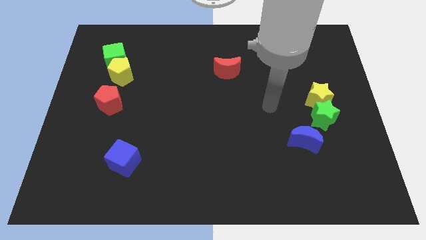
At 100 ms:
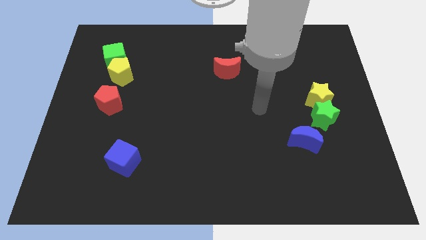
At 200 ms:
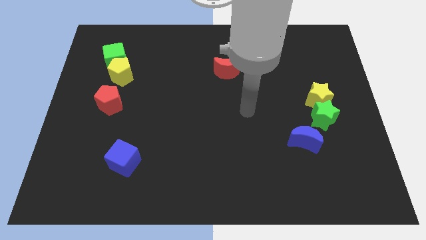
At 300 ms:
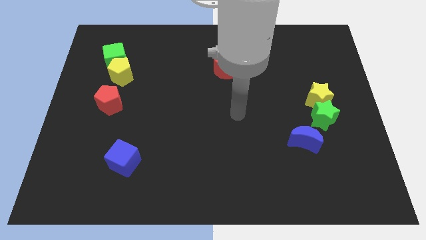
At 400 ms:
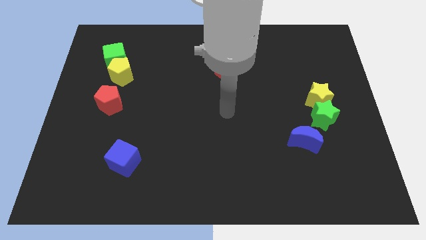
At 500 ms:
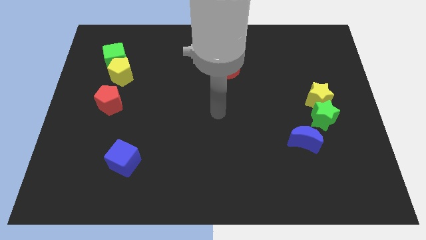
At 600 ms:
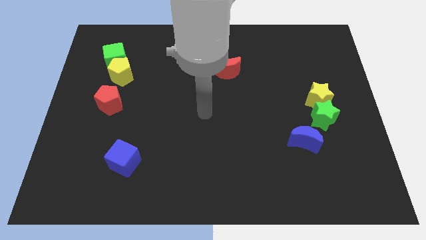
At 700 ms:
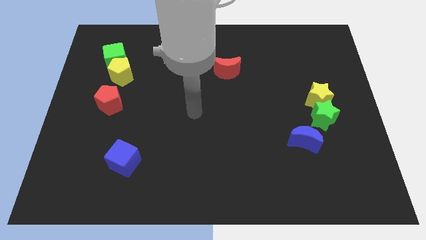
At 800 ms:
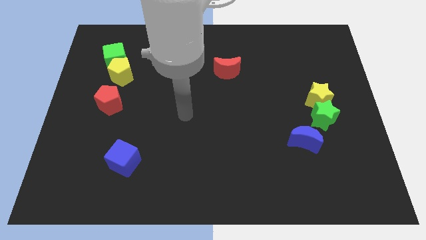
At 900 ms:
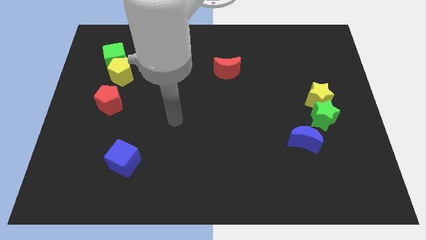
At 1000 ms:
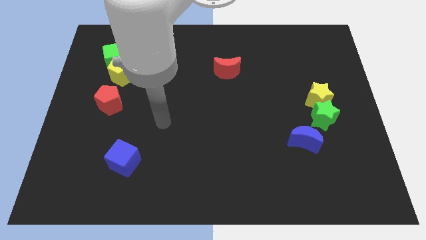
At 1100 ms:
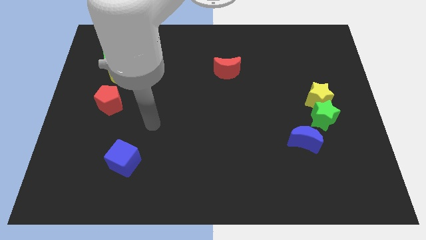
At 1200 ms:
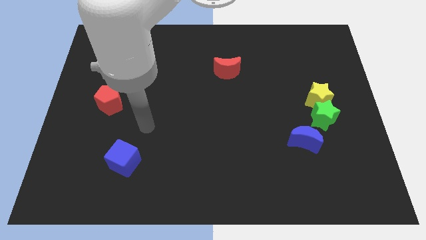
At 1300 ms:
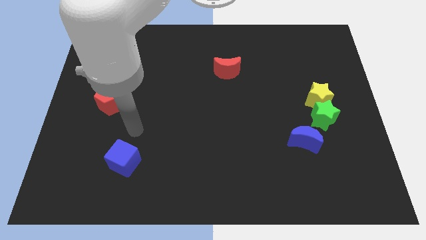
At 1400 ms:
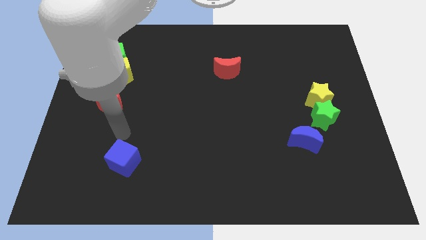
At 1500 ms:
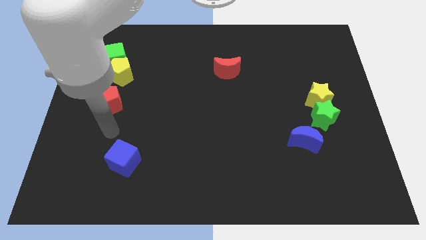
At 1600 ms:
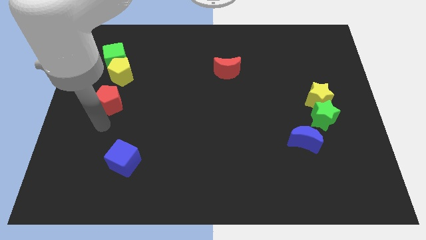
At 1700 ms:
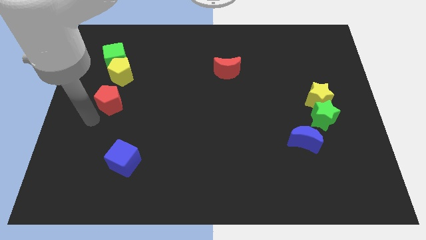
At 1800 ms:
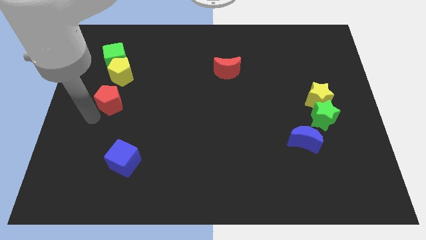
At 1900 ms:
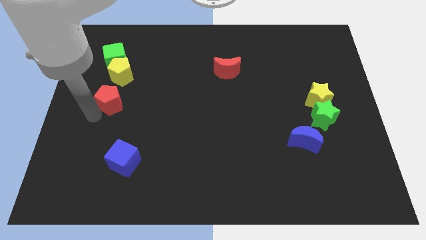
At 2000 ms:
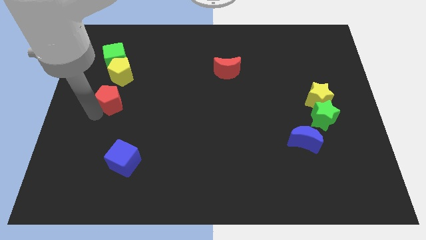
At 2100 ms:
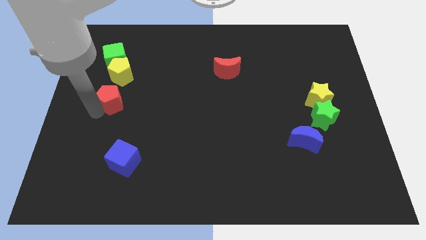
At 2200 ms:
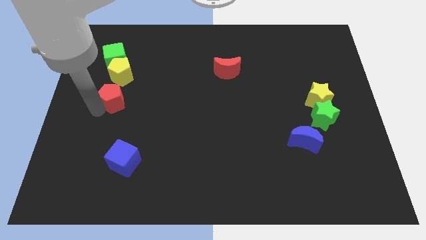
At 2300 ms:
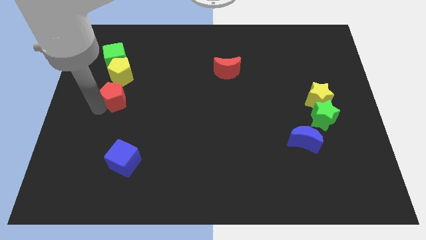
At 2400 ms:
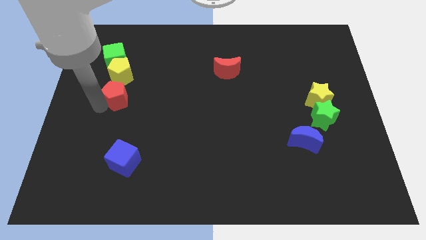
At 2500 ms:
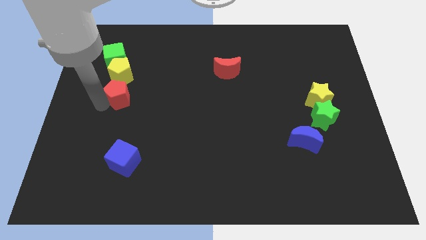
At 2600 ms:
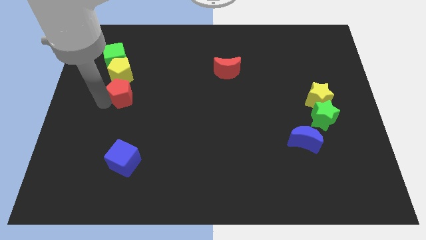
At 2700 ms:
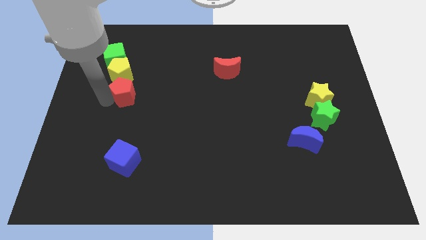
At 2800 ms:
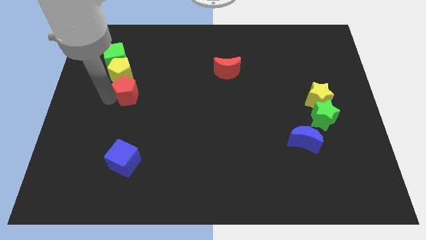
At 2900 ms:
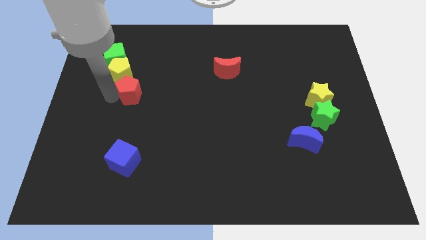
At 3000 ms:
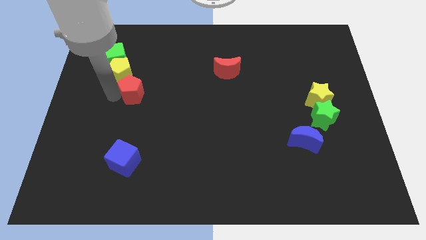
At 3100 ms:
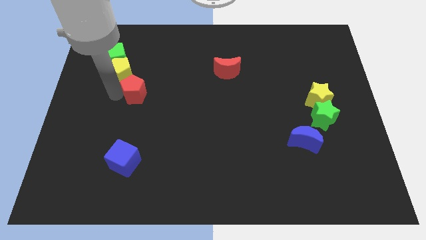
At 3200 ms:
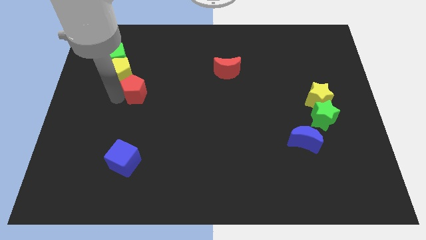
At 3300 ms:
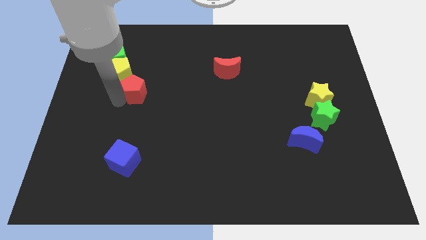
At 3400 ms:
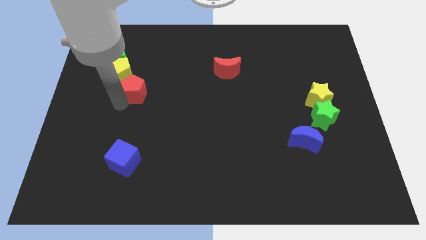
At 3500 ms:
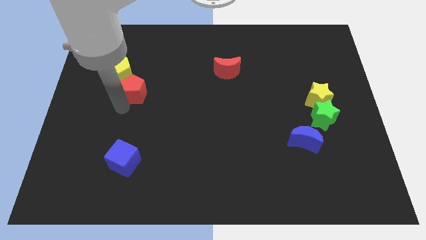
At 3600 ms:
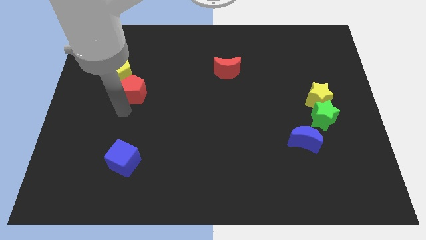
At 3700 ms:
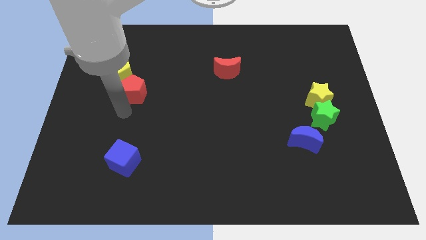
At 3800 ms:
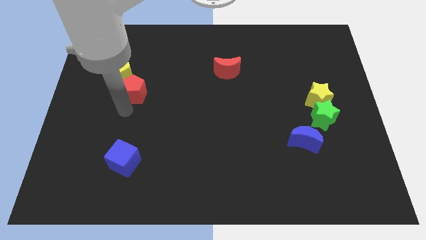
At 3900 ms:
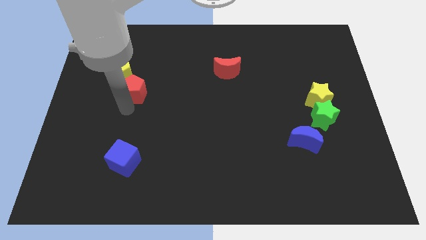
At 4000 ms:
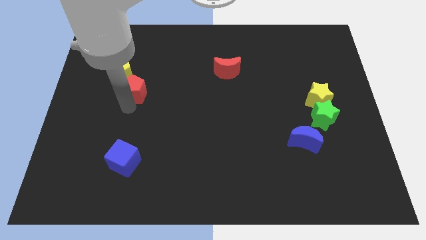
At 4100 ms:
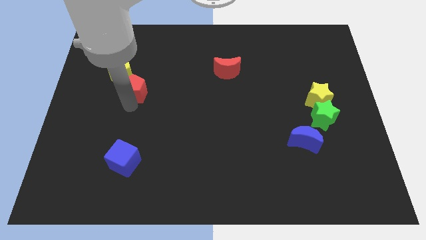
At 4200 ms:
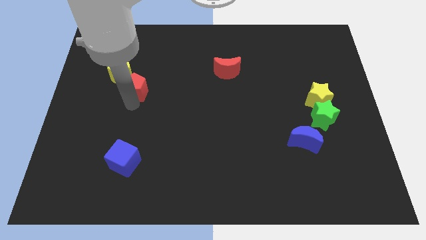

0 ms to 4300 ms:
move the red pentagon a little bit diagonally upwards and right

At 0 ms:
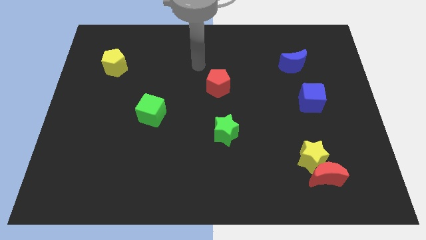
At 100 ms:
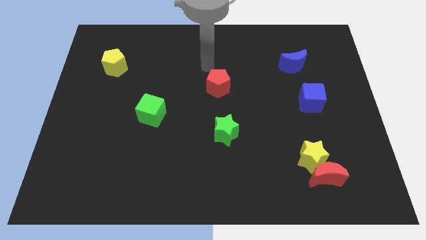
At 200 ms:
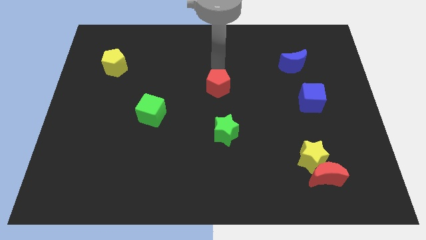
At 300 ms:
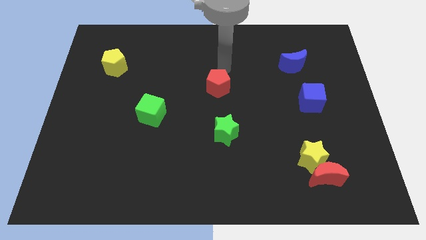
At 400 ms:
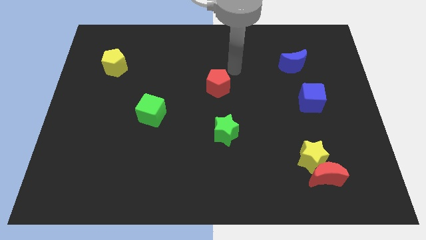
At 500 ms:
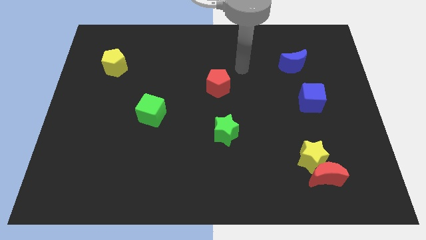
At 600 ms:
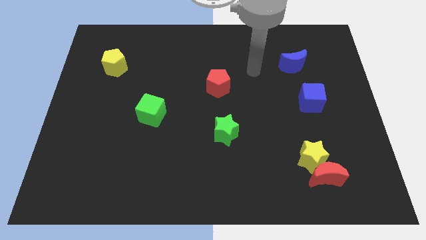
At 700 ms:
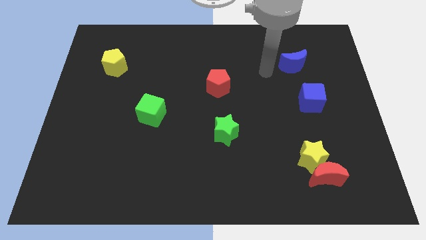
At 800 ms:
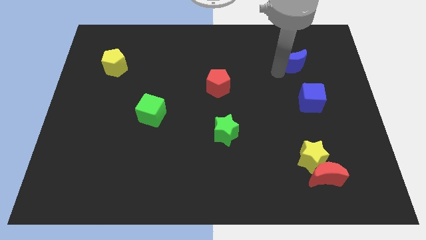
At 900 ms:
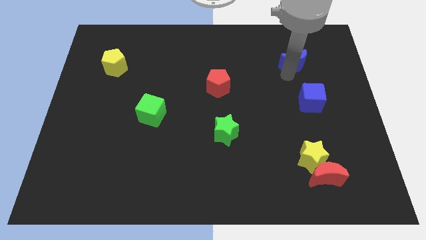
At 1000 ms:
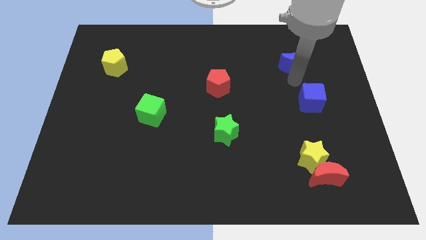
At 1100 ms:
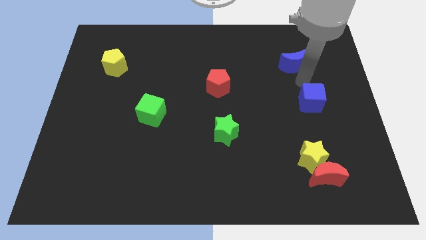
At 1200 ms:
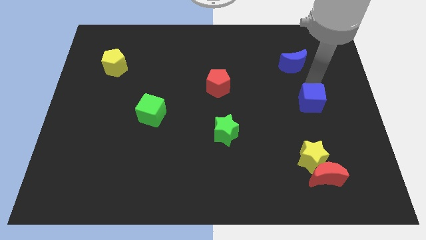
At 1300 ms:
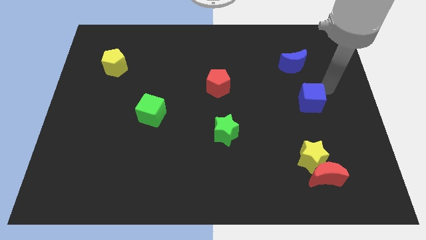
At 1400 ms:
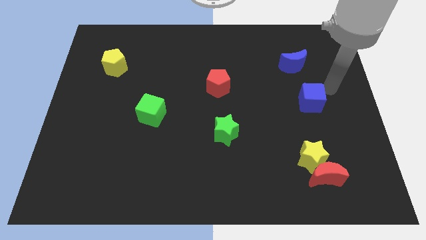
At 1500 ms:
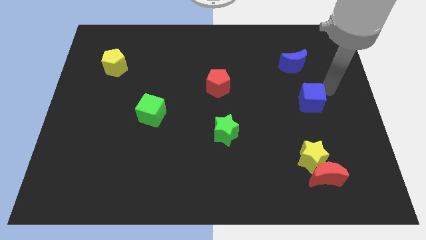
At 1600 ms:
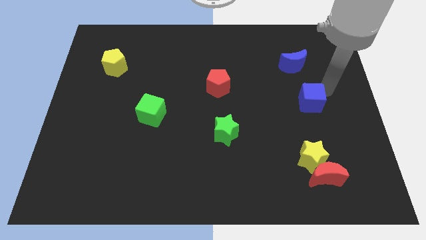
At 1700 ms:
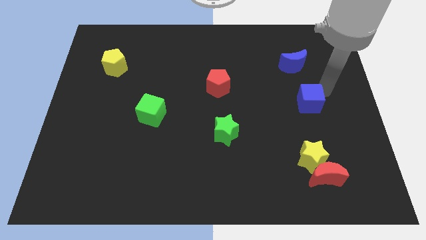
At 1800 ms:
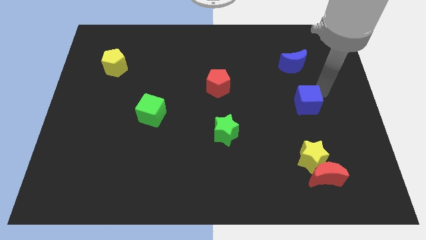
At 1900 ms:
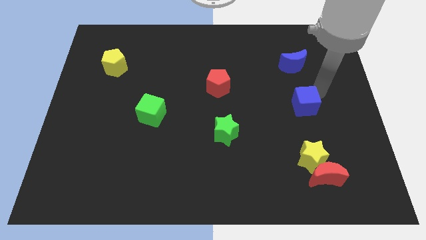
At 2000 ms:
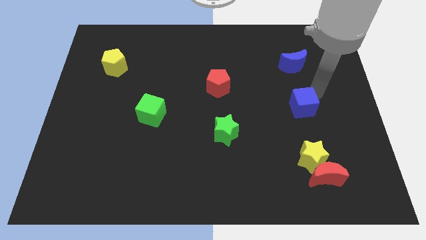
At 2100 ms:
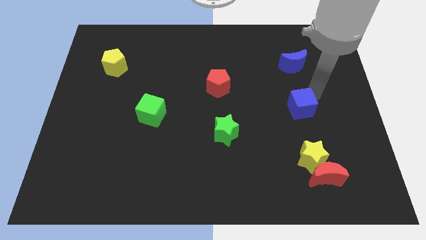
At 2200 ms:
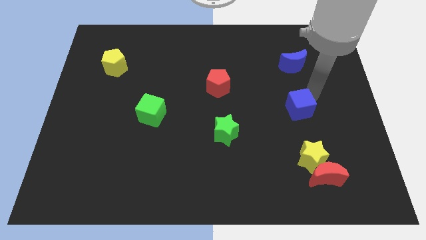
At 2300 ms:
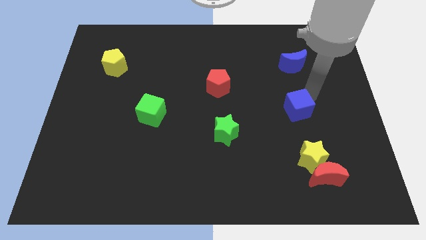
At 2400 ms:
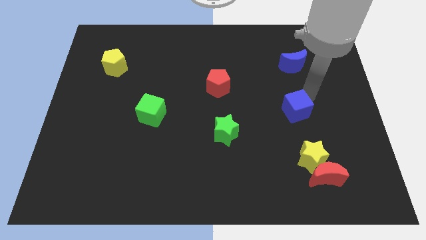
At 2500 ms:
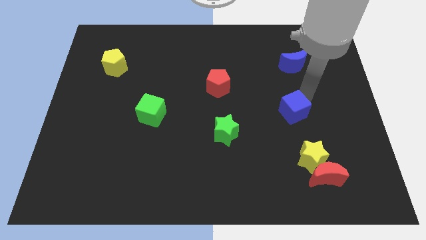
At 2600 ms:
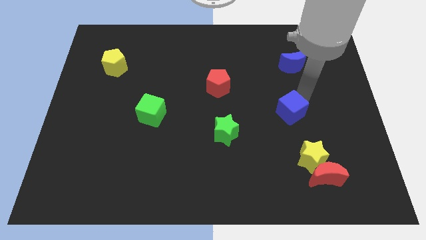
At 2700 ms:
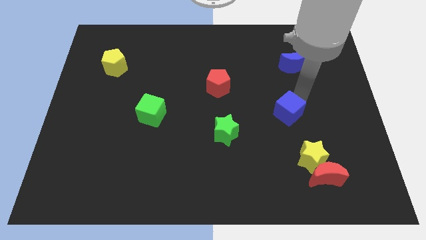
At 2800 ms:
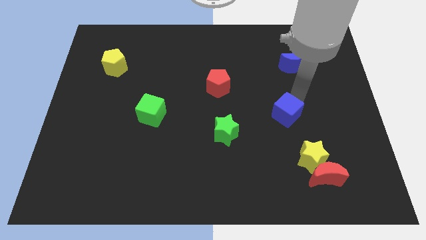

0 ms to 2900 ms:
slide the blue cube a bit diagonally down and to the left

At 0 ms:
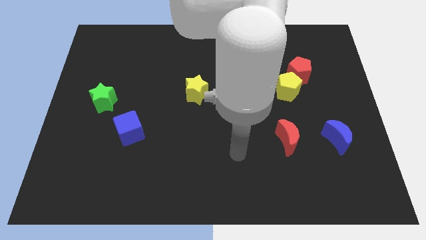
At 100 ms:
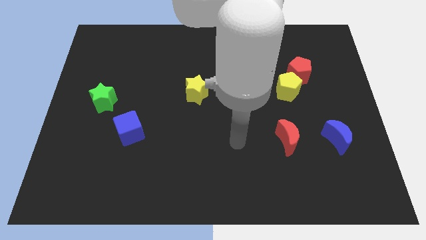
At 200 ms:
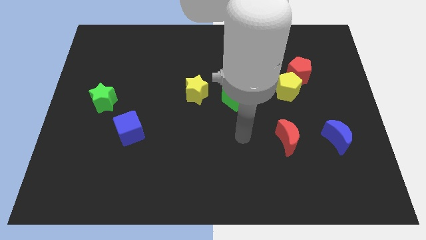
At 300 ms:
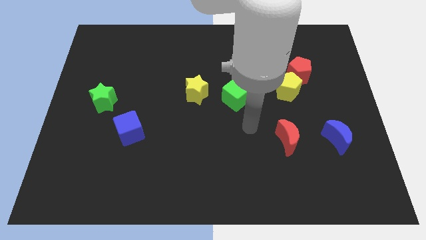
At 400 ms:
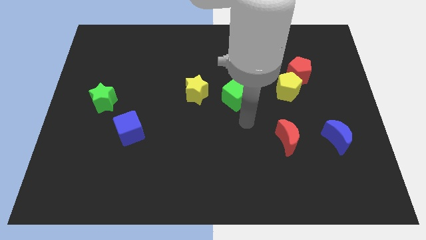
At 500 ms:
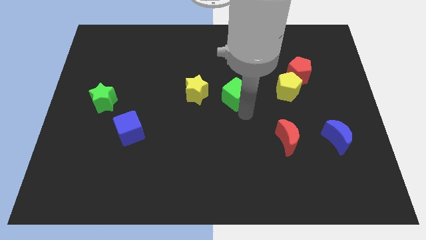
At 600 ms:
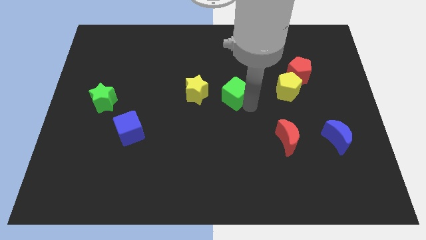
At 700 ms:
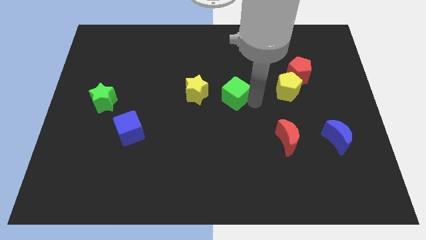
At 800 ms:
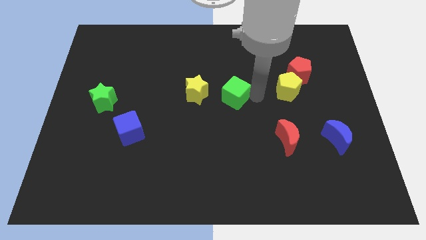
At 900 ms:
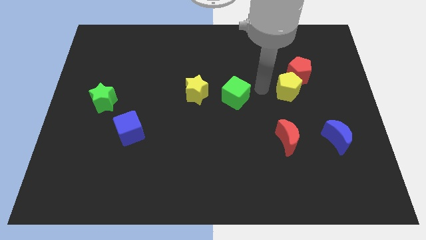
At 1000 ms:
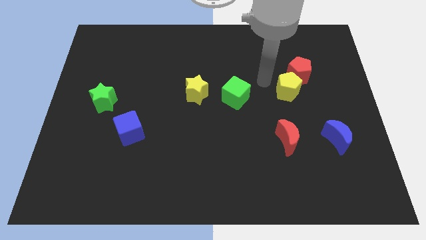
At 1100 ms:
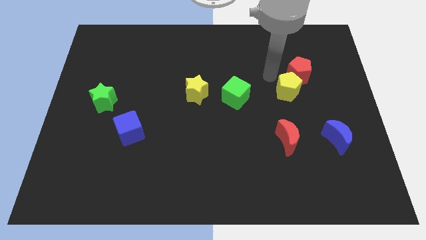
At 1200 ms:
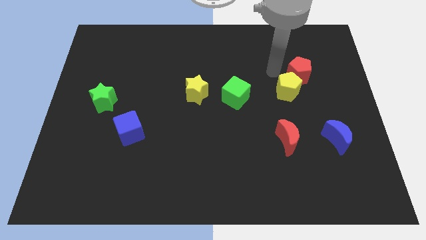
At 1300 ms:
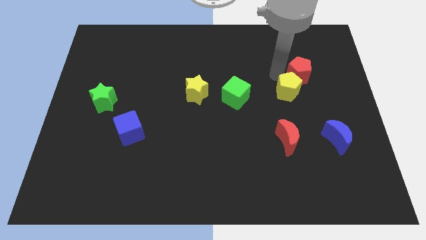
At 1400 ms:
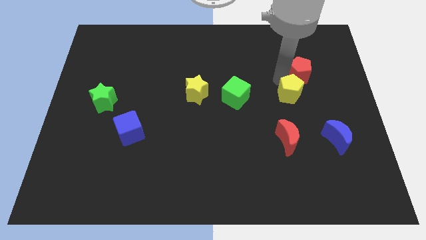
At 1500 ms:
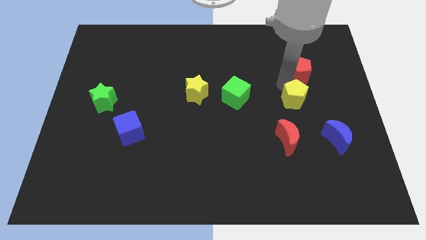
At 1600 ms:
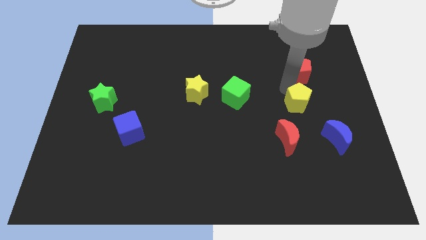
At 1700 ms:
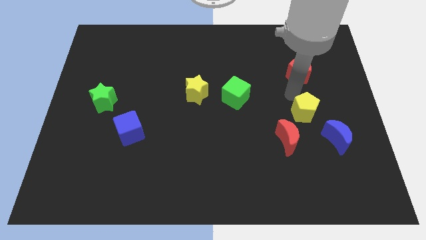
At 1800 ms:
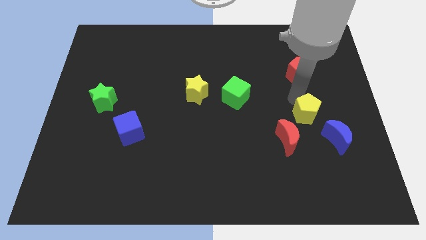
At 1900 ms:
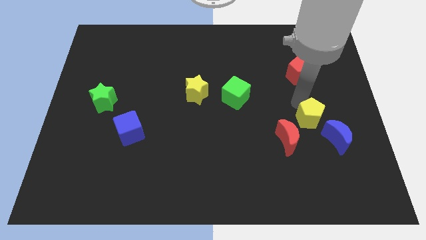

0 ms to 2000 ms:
move the yellow pentagon a little down
